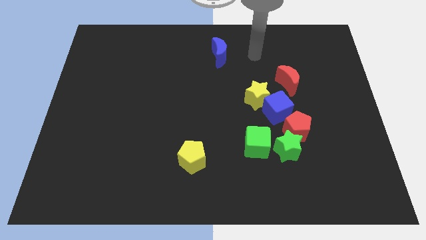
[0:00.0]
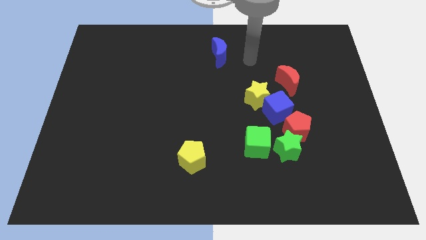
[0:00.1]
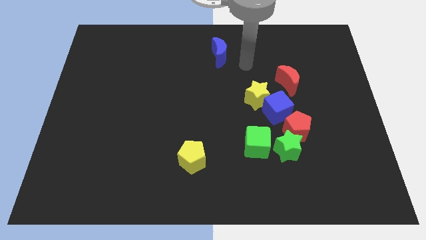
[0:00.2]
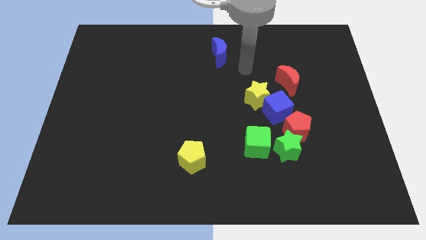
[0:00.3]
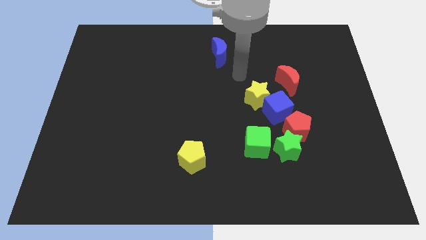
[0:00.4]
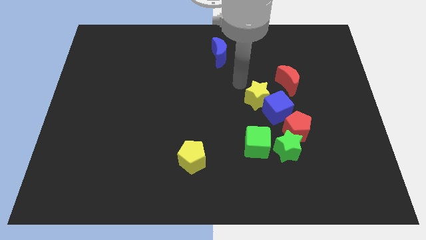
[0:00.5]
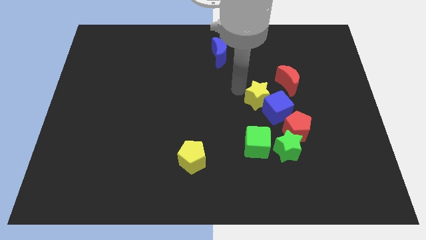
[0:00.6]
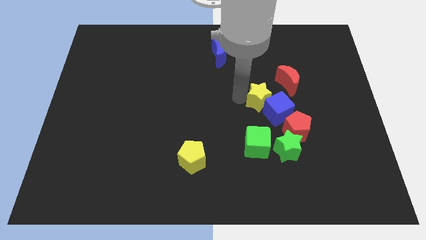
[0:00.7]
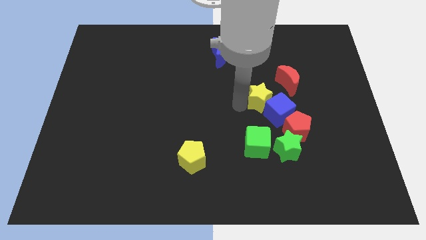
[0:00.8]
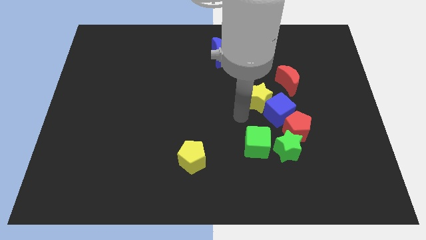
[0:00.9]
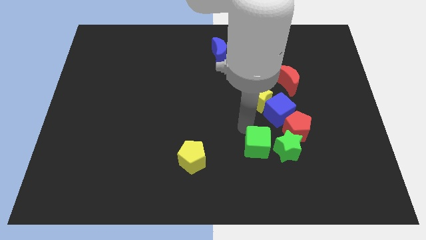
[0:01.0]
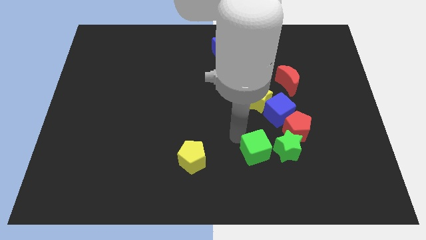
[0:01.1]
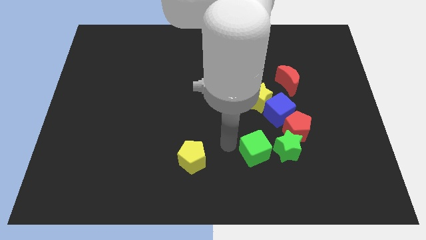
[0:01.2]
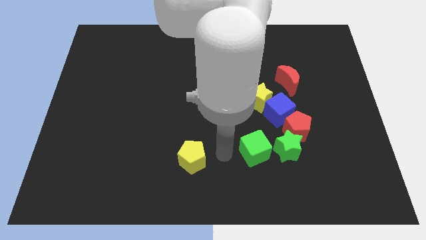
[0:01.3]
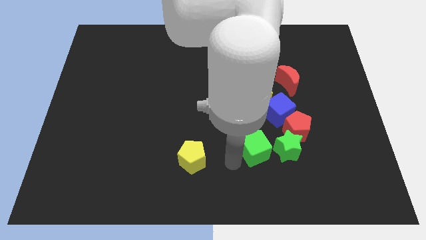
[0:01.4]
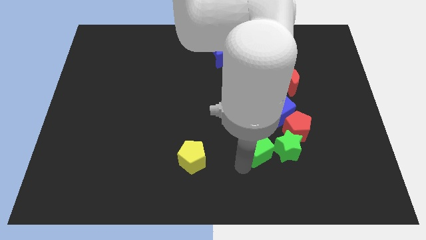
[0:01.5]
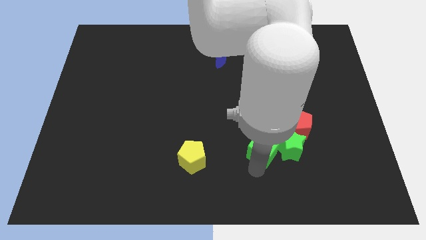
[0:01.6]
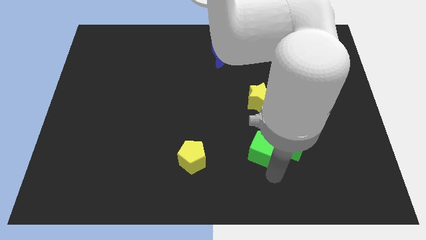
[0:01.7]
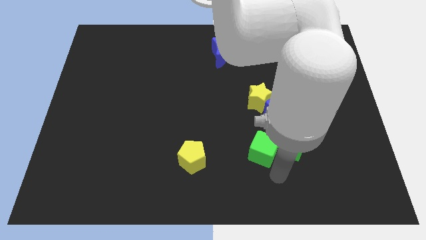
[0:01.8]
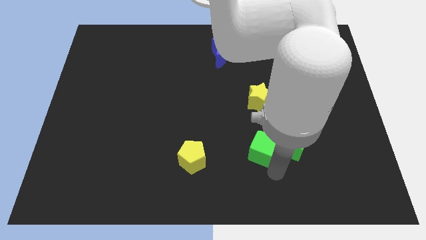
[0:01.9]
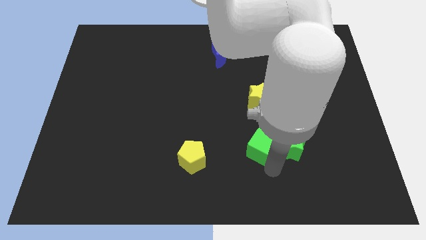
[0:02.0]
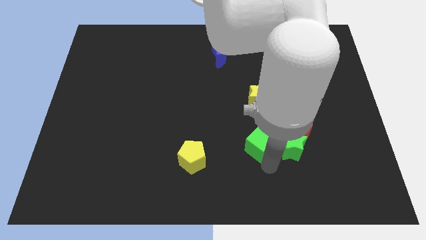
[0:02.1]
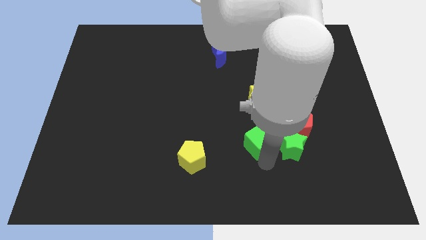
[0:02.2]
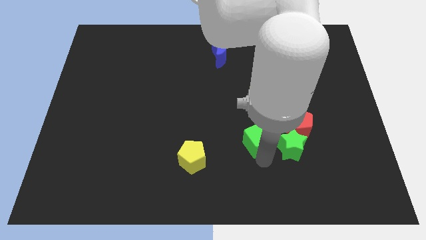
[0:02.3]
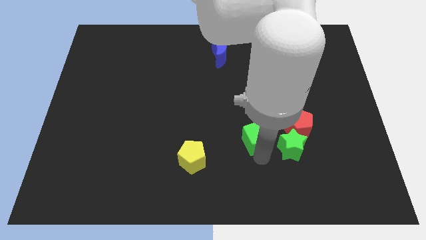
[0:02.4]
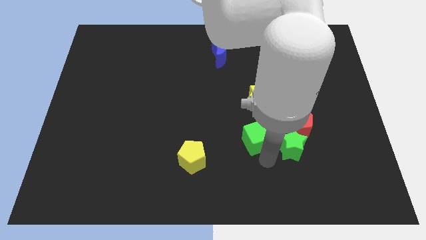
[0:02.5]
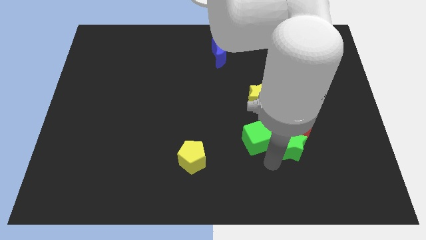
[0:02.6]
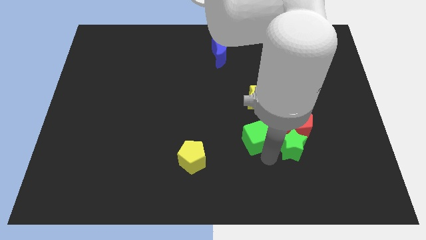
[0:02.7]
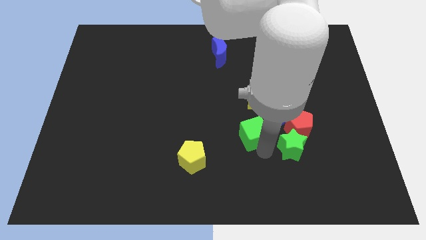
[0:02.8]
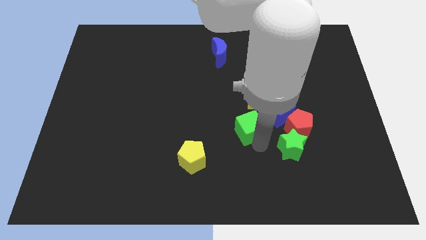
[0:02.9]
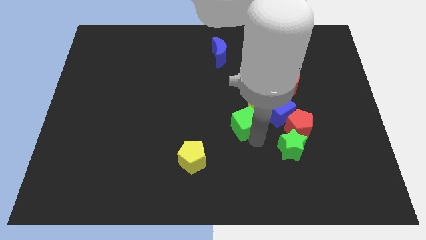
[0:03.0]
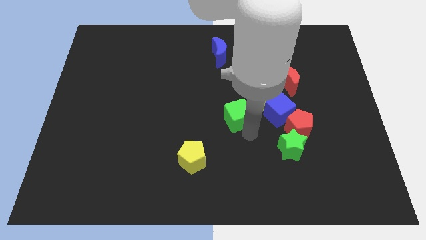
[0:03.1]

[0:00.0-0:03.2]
slightly slide the green cube upwards

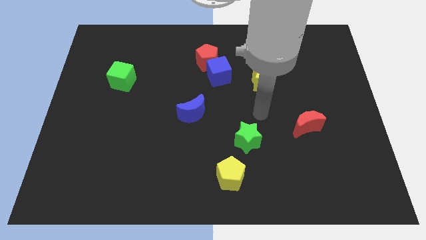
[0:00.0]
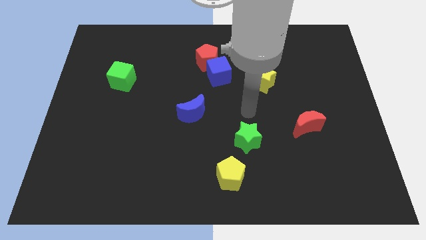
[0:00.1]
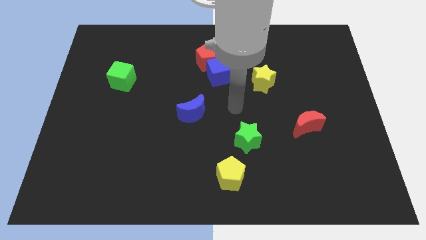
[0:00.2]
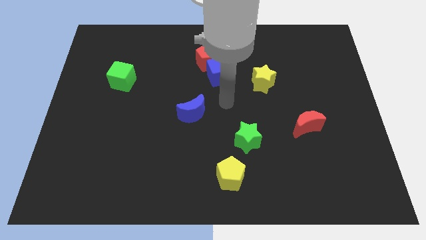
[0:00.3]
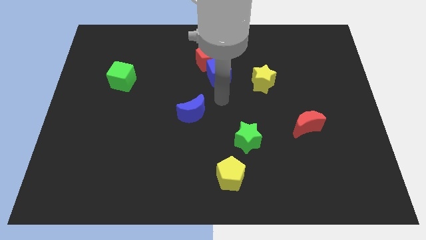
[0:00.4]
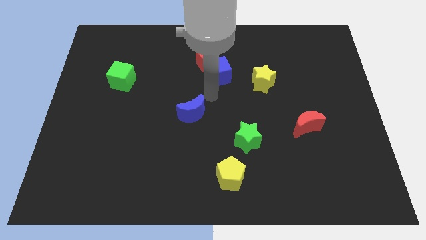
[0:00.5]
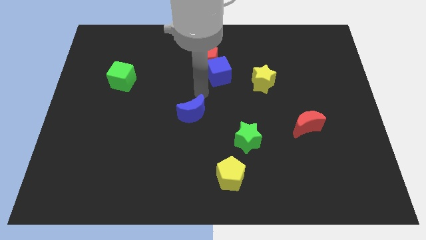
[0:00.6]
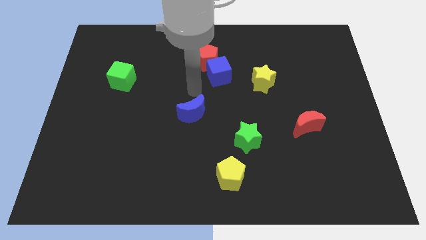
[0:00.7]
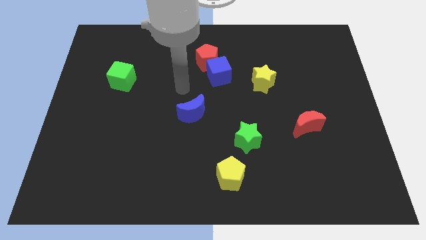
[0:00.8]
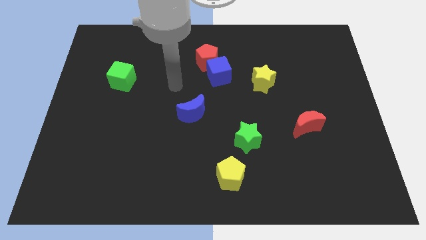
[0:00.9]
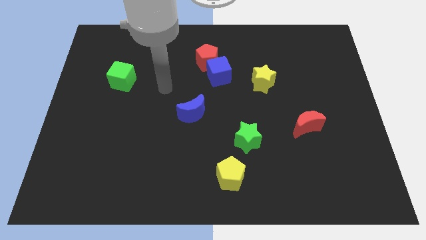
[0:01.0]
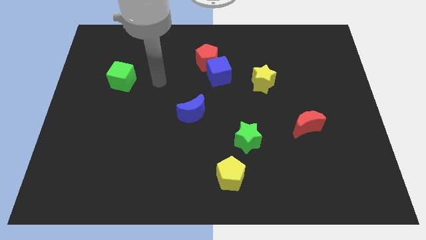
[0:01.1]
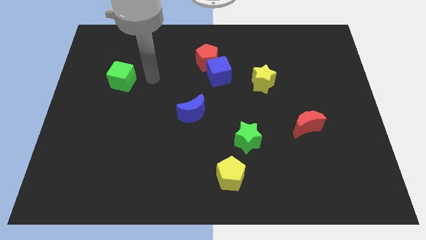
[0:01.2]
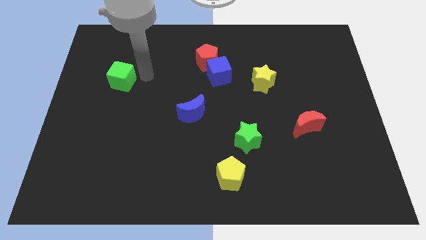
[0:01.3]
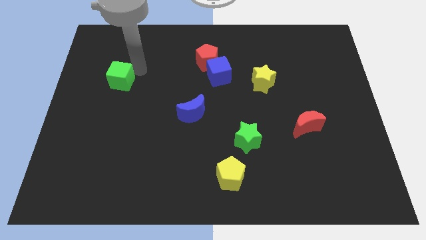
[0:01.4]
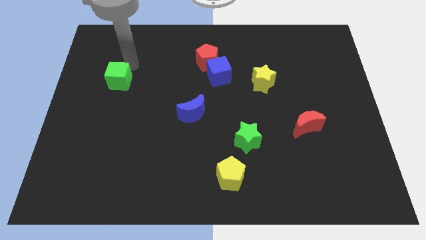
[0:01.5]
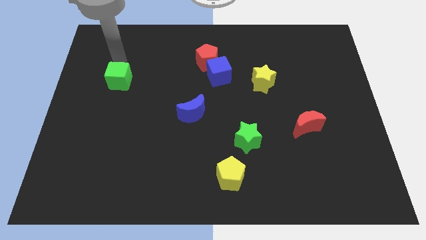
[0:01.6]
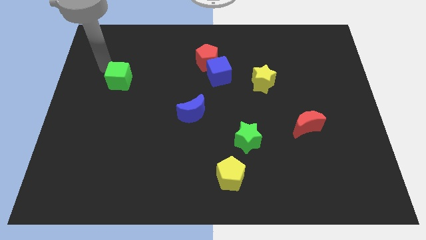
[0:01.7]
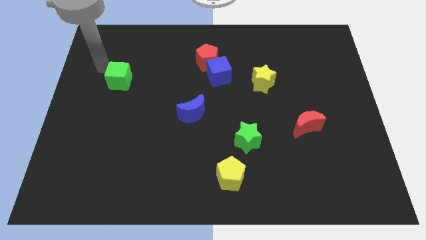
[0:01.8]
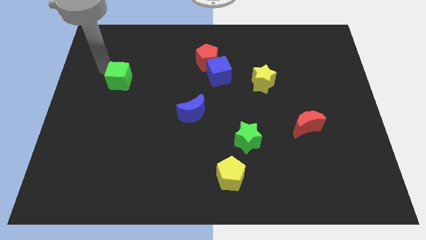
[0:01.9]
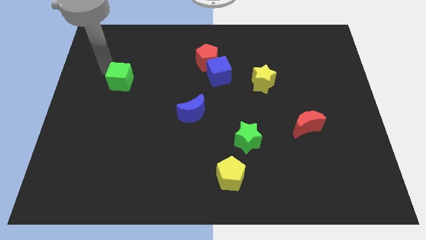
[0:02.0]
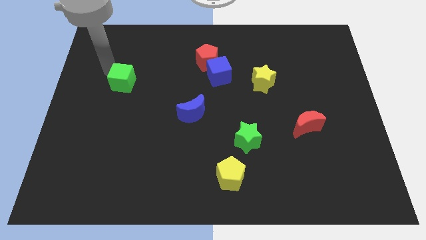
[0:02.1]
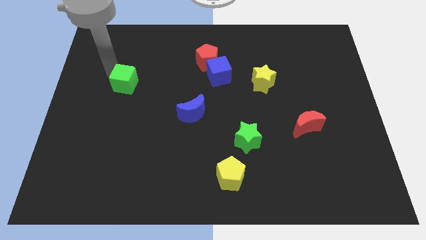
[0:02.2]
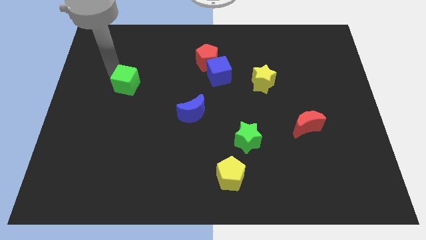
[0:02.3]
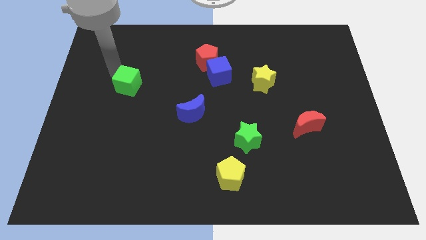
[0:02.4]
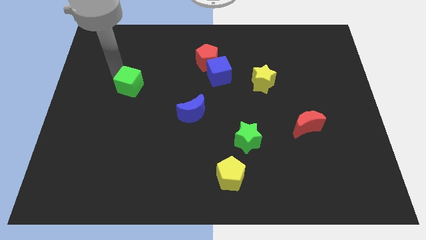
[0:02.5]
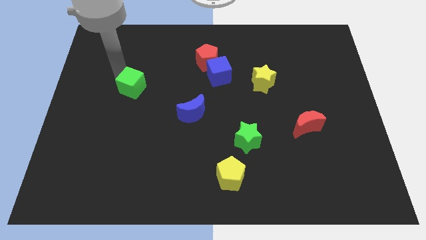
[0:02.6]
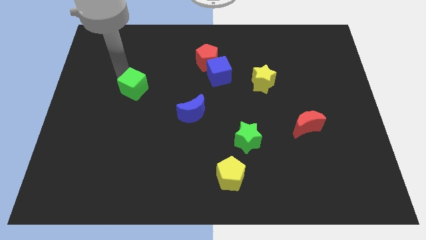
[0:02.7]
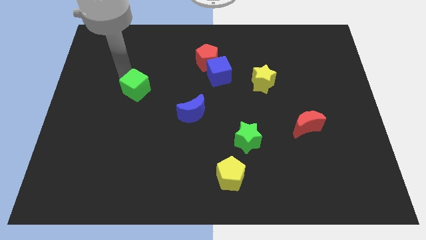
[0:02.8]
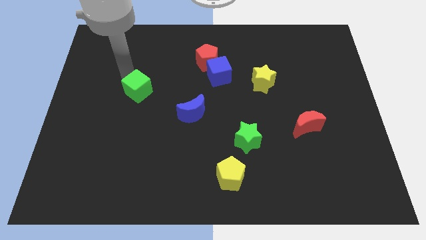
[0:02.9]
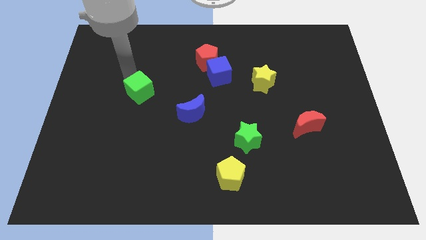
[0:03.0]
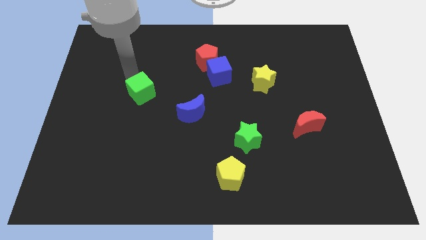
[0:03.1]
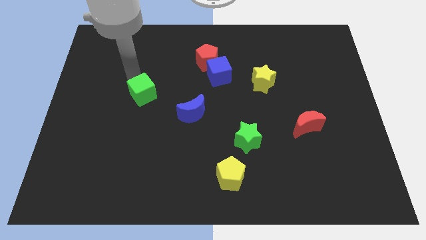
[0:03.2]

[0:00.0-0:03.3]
move the green cube slightly down and then to the right

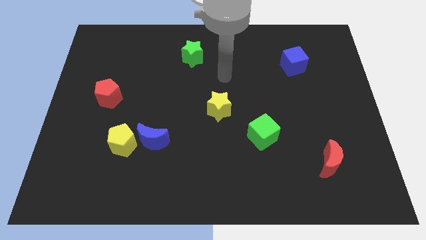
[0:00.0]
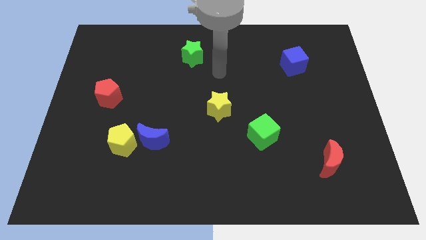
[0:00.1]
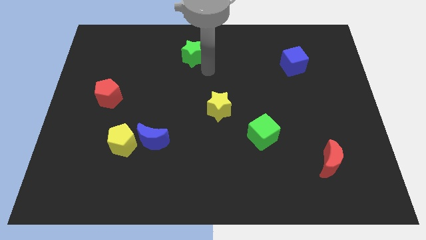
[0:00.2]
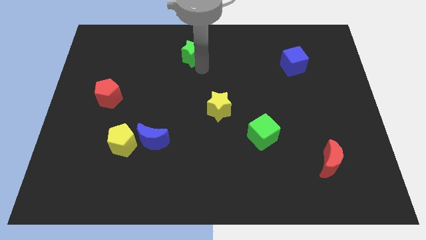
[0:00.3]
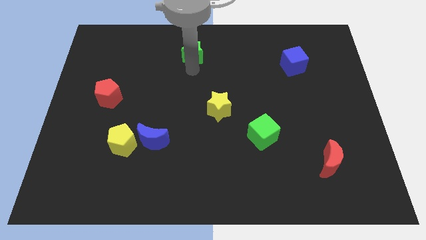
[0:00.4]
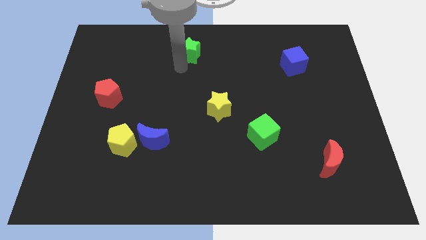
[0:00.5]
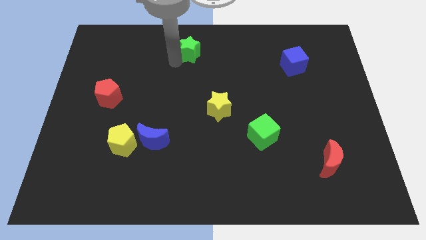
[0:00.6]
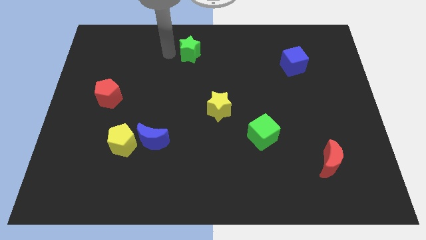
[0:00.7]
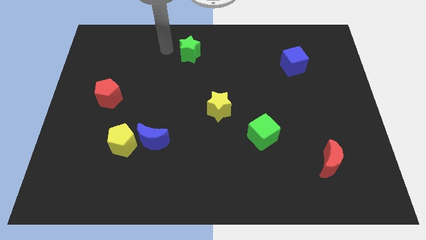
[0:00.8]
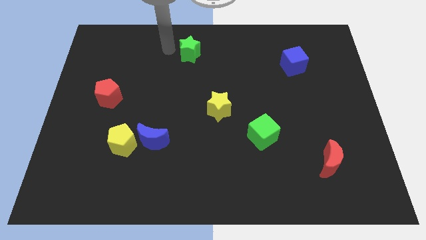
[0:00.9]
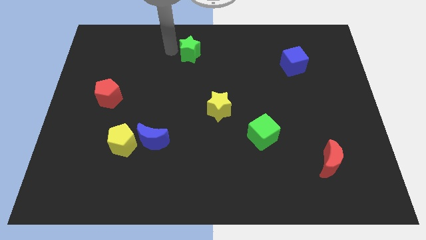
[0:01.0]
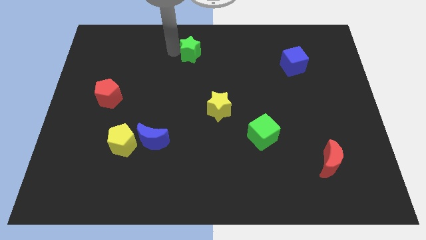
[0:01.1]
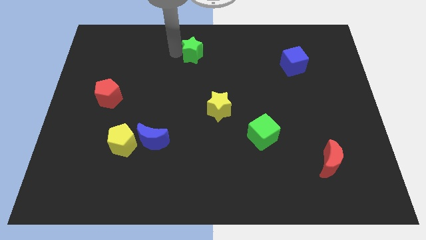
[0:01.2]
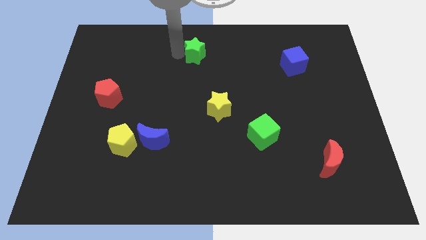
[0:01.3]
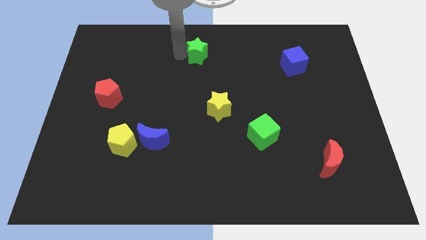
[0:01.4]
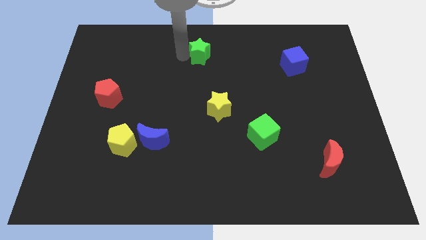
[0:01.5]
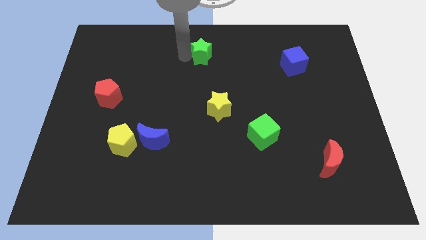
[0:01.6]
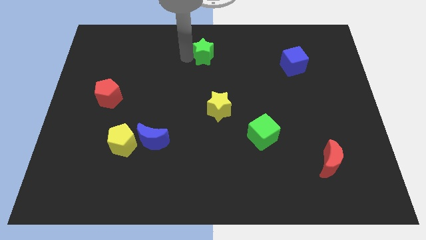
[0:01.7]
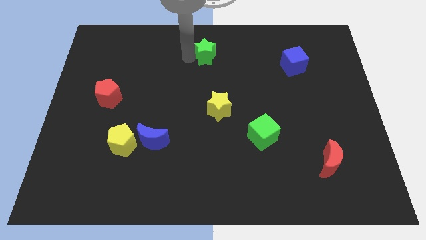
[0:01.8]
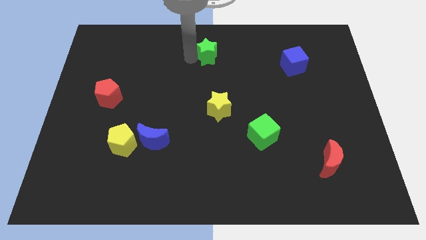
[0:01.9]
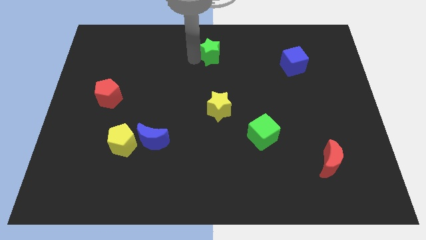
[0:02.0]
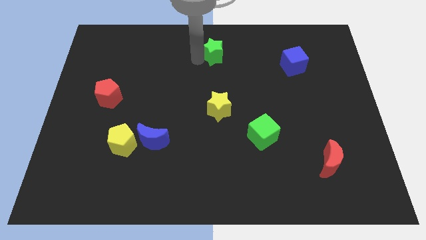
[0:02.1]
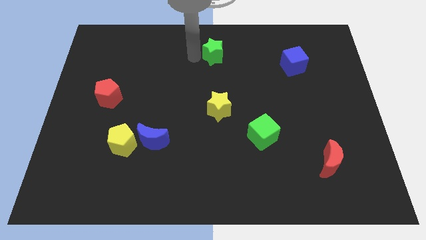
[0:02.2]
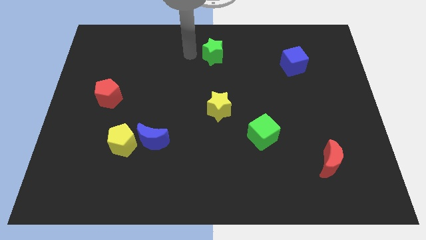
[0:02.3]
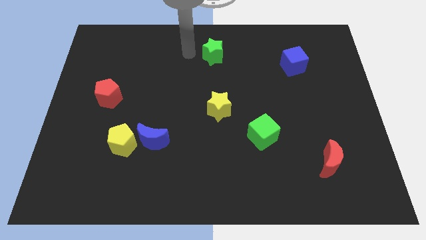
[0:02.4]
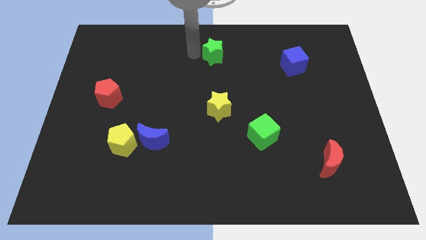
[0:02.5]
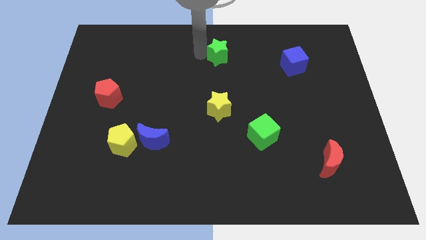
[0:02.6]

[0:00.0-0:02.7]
move the green star a bit right
